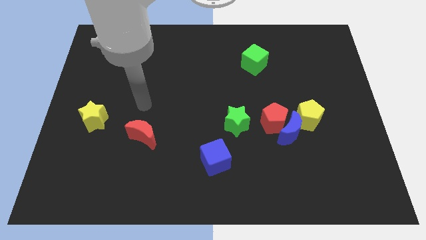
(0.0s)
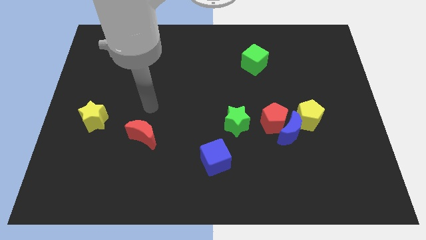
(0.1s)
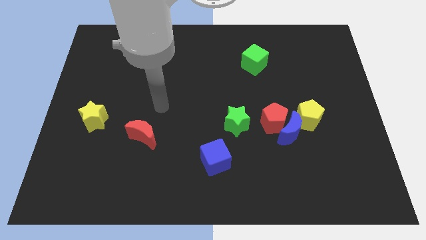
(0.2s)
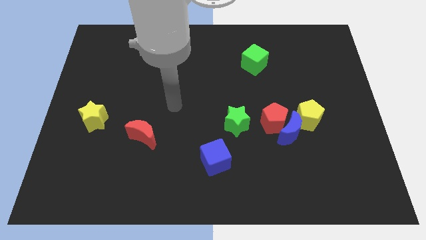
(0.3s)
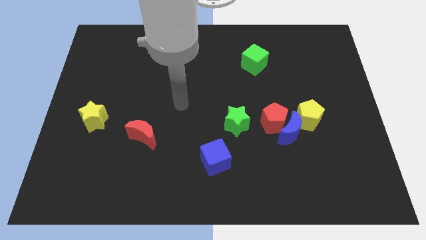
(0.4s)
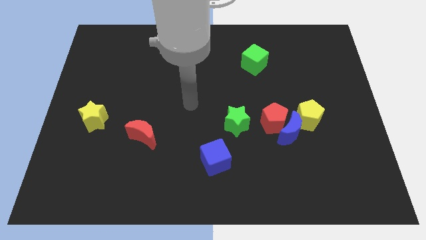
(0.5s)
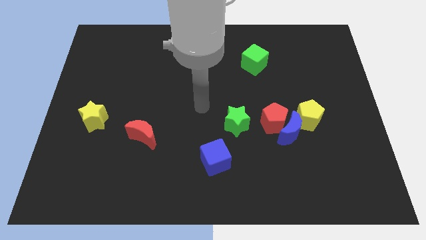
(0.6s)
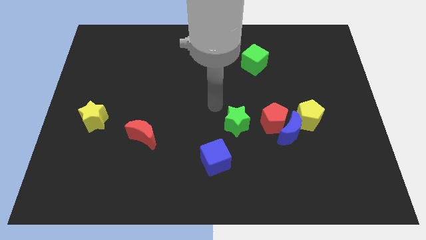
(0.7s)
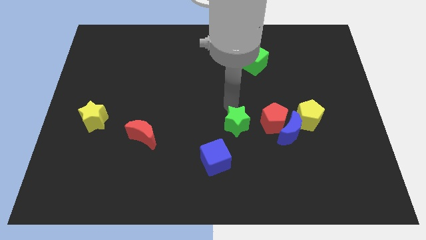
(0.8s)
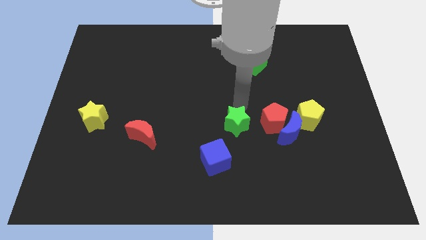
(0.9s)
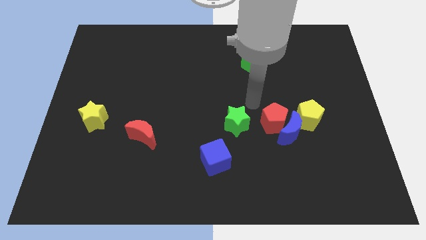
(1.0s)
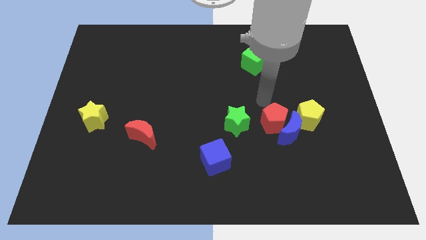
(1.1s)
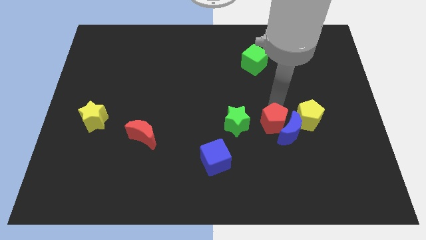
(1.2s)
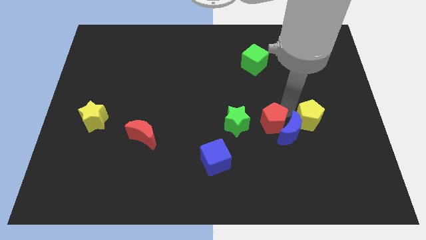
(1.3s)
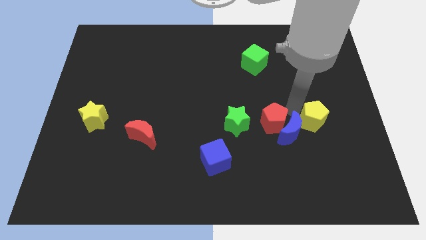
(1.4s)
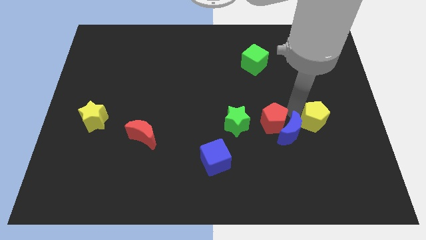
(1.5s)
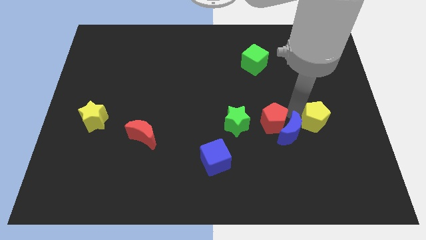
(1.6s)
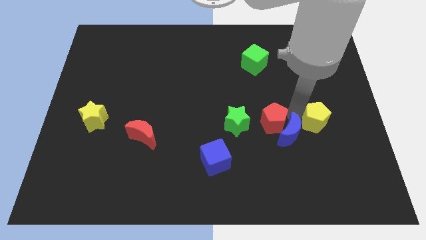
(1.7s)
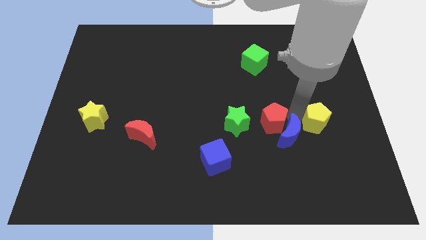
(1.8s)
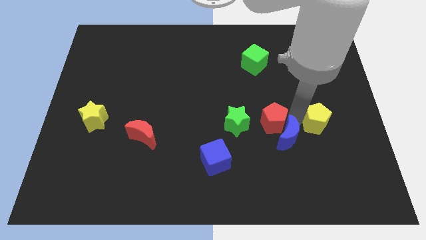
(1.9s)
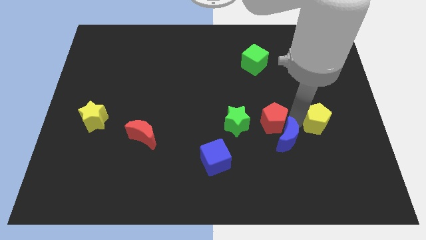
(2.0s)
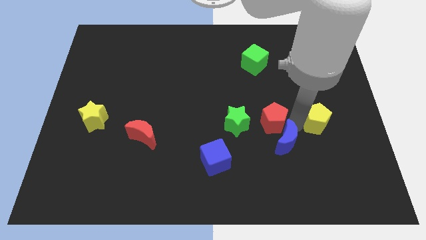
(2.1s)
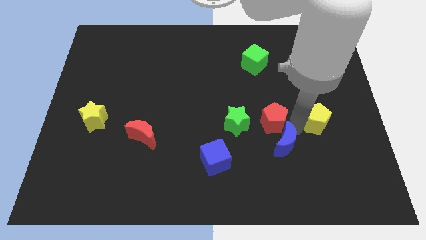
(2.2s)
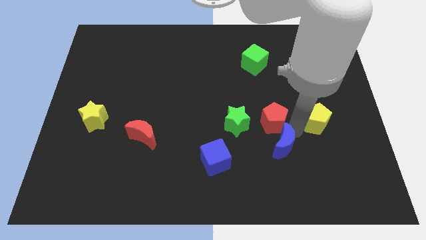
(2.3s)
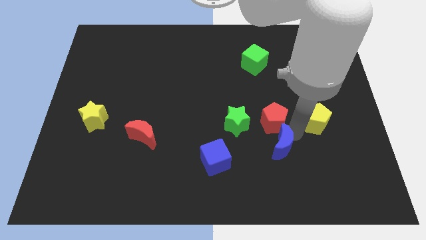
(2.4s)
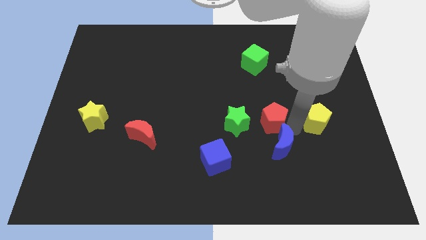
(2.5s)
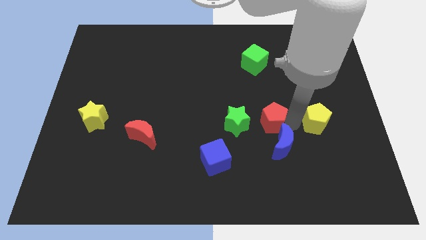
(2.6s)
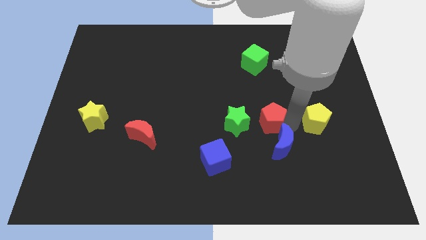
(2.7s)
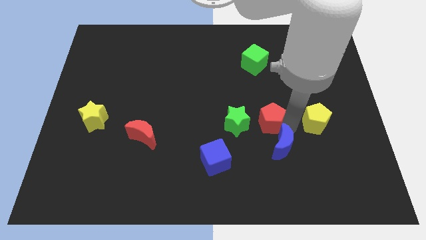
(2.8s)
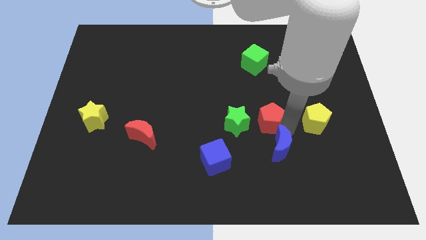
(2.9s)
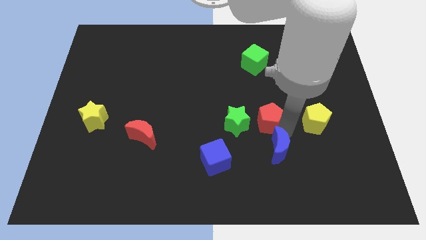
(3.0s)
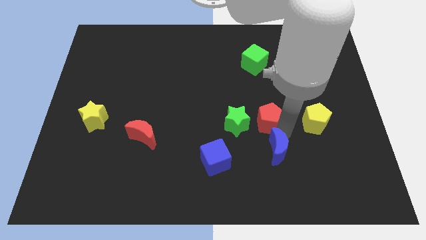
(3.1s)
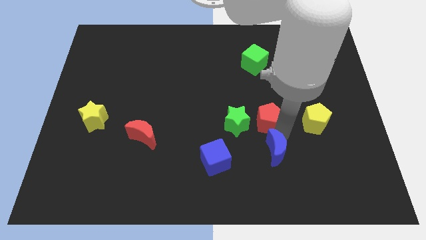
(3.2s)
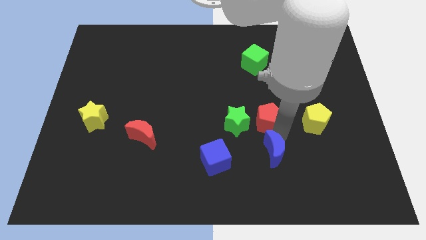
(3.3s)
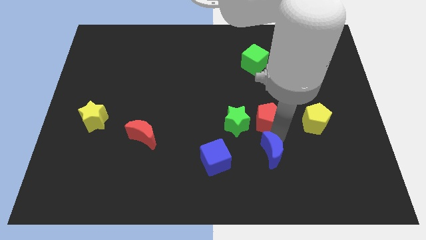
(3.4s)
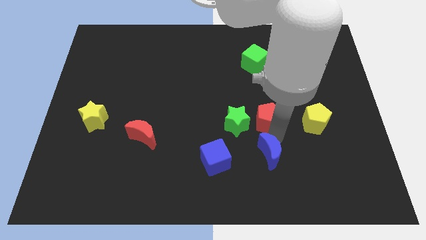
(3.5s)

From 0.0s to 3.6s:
move the blue moon away from the red pentagon and yellow pentagon

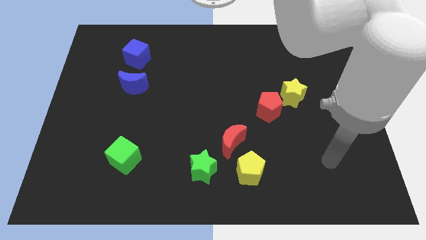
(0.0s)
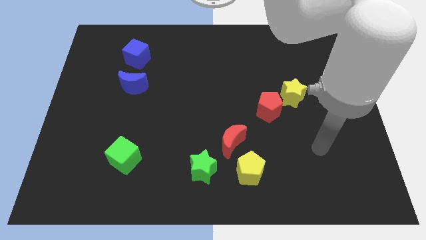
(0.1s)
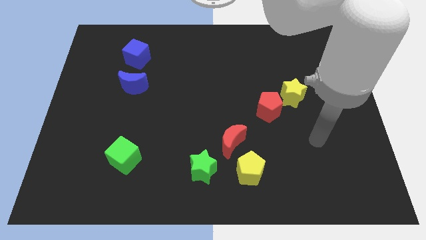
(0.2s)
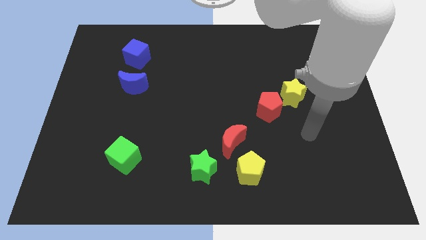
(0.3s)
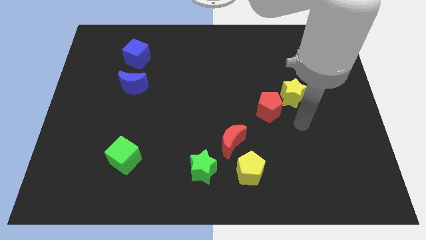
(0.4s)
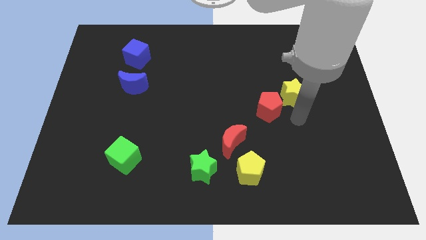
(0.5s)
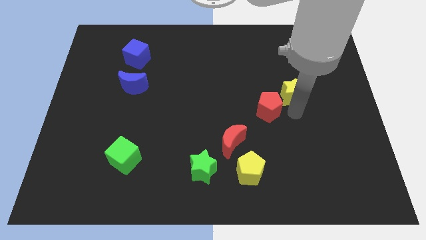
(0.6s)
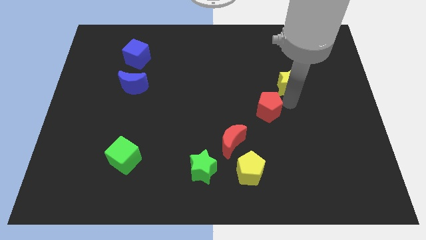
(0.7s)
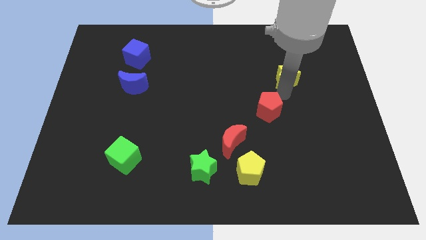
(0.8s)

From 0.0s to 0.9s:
separate the red pentagon from the yellow star

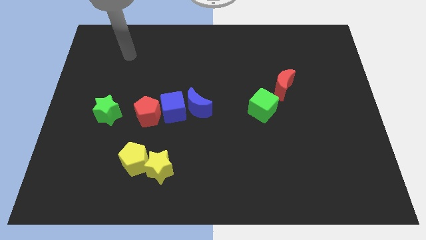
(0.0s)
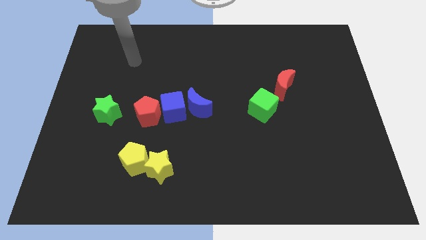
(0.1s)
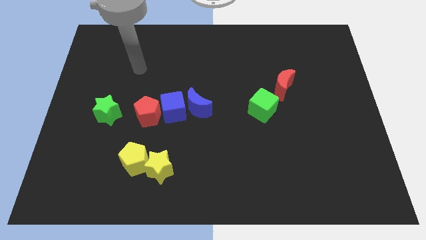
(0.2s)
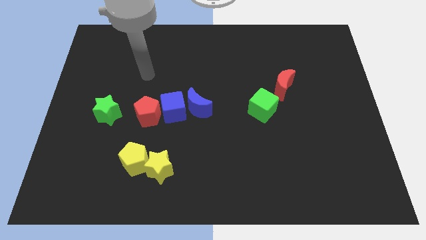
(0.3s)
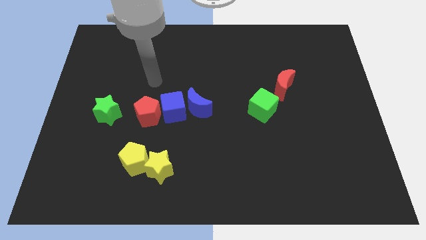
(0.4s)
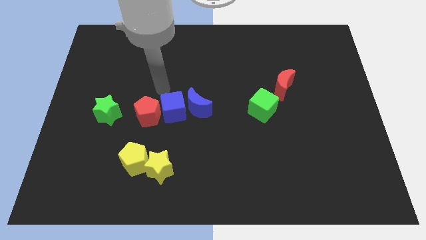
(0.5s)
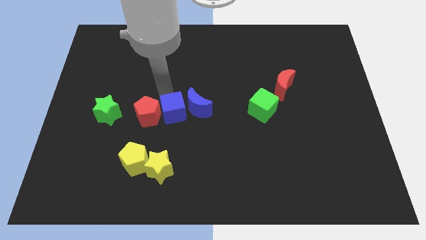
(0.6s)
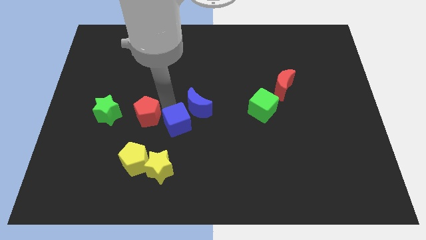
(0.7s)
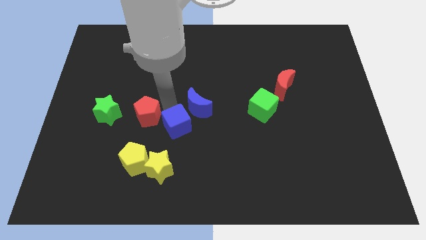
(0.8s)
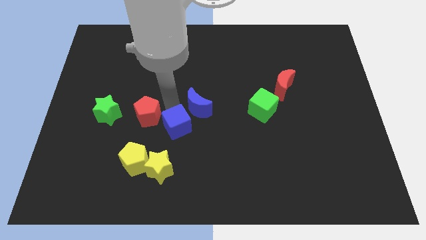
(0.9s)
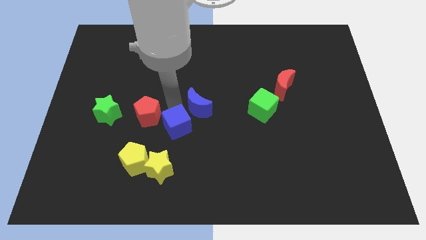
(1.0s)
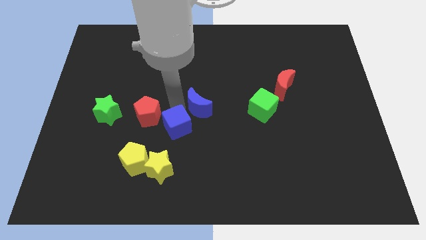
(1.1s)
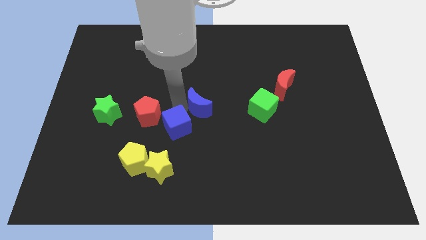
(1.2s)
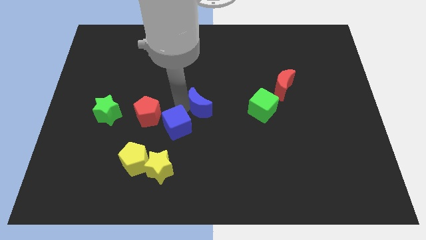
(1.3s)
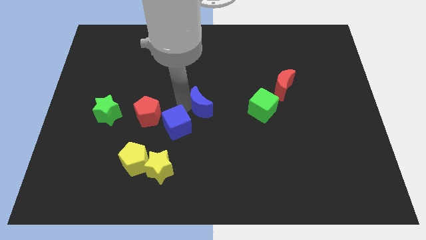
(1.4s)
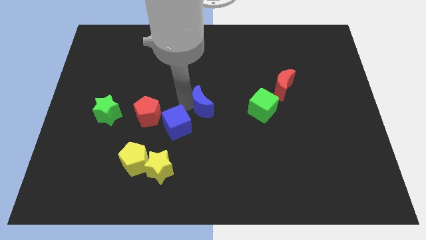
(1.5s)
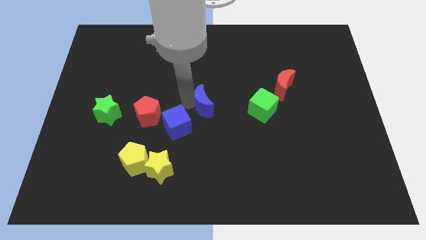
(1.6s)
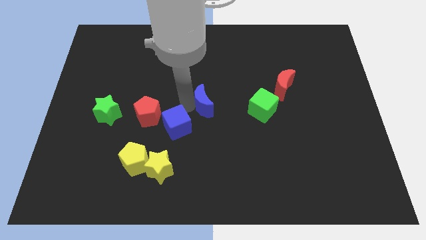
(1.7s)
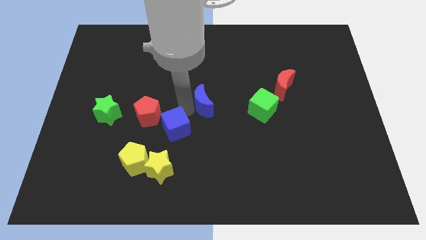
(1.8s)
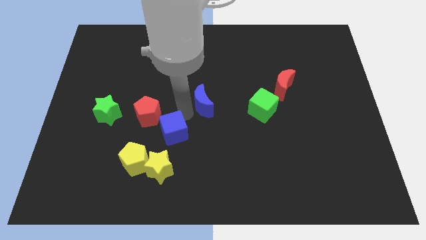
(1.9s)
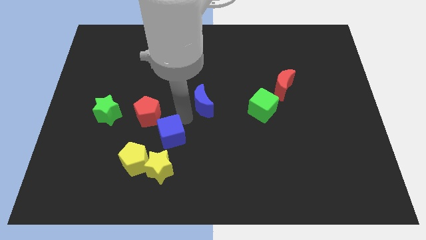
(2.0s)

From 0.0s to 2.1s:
move the blue moon away from the blue cube

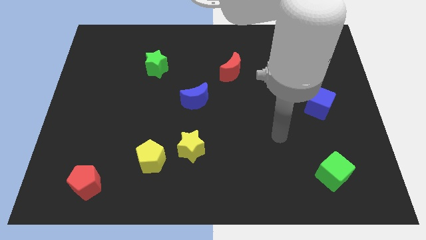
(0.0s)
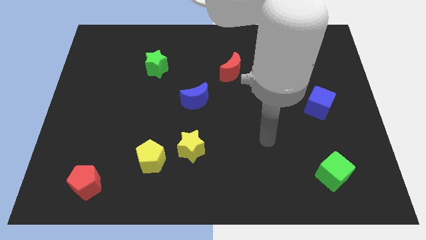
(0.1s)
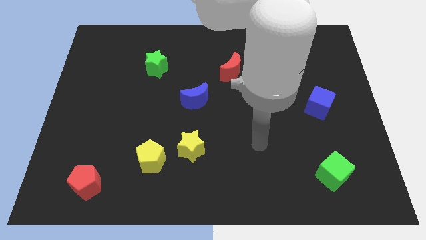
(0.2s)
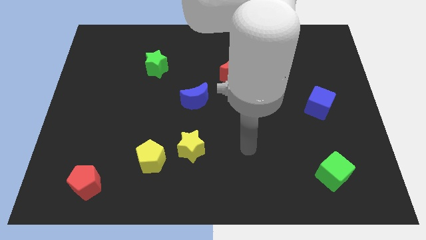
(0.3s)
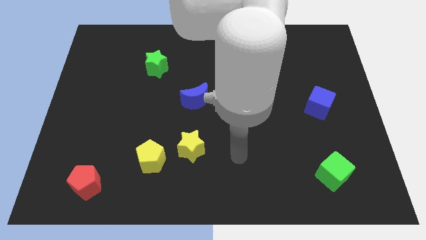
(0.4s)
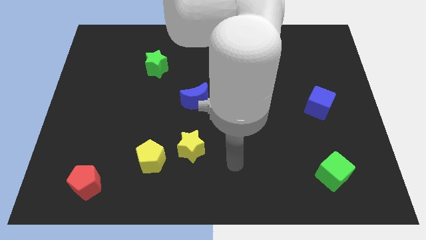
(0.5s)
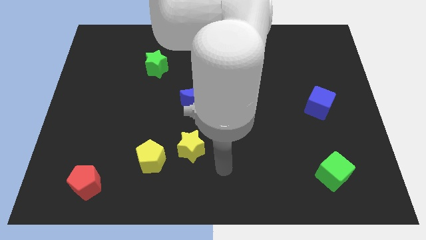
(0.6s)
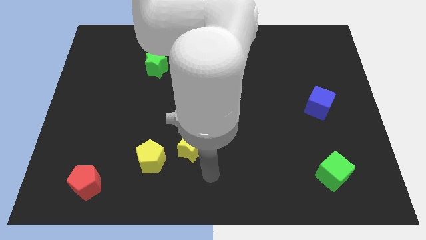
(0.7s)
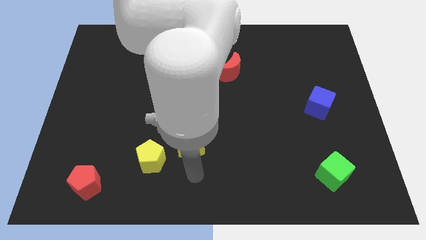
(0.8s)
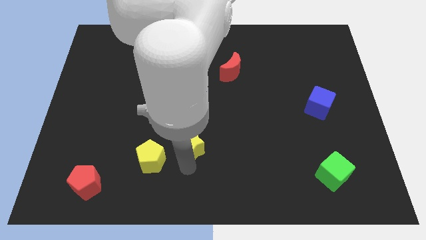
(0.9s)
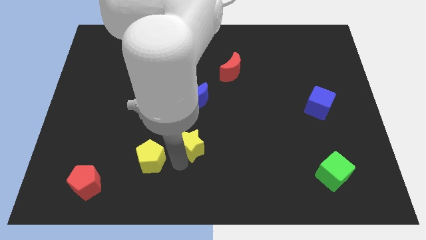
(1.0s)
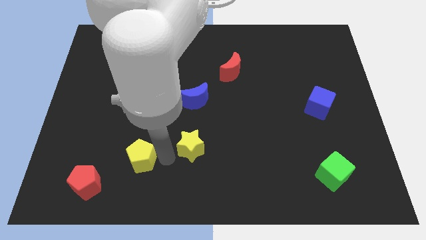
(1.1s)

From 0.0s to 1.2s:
pull the yellow star apart from the yellow pentagon

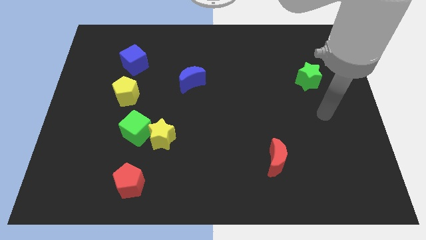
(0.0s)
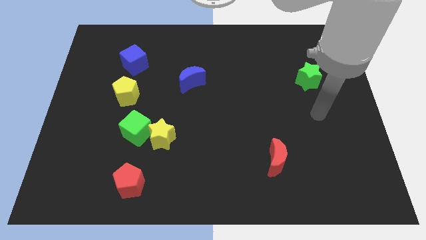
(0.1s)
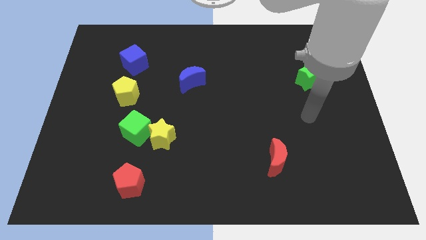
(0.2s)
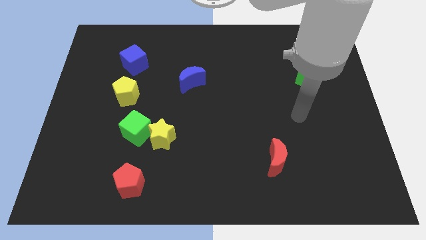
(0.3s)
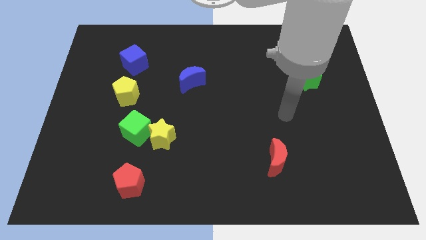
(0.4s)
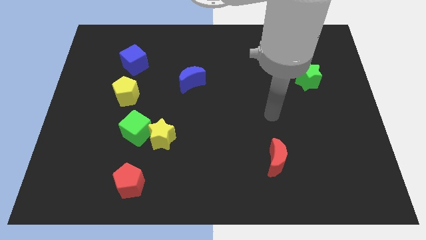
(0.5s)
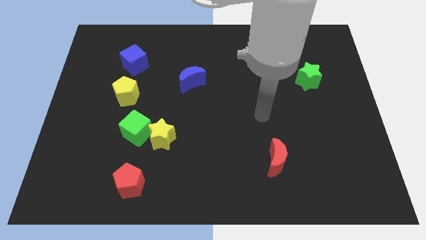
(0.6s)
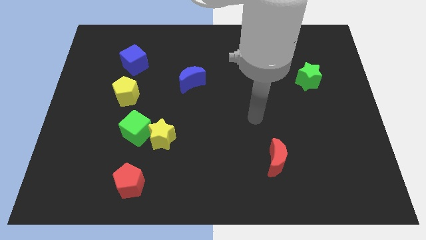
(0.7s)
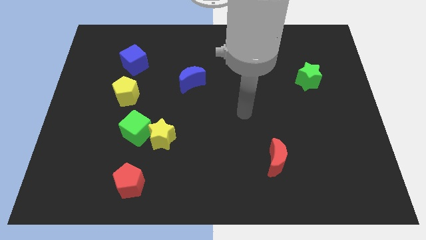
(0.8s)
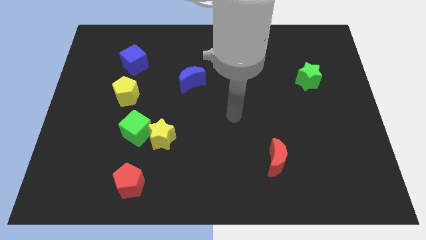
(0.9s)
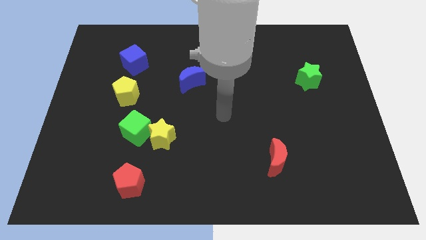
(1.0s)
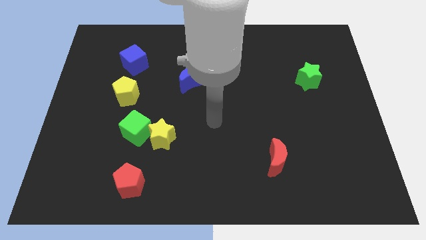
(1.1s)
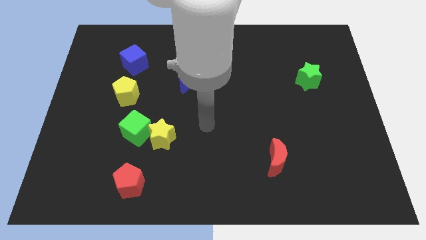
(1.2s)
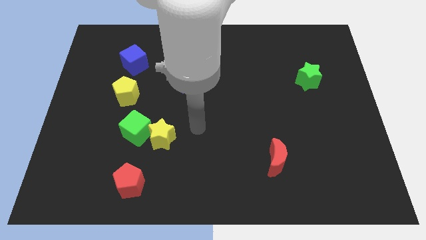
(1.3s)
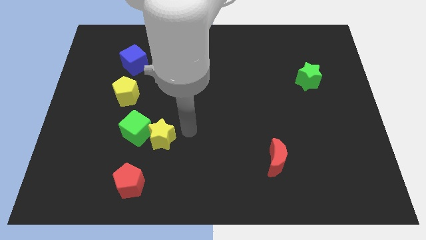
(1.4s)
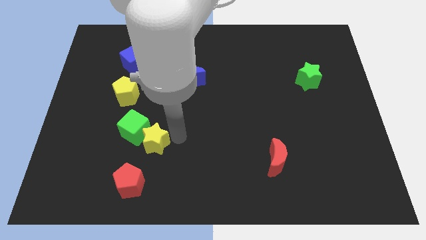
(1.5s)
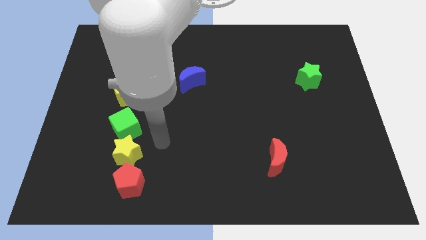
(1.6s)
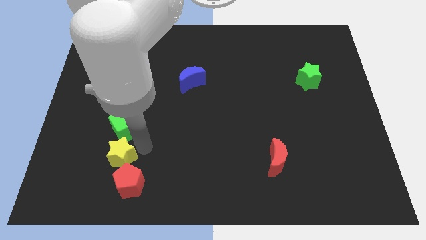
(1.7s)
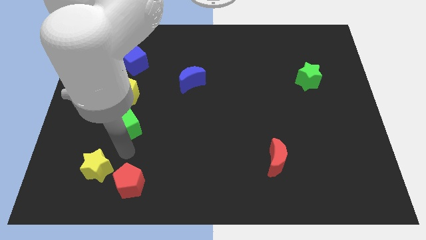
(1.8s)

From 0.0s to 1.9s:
move the green cube away from the yellow star
